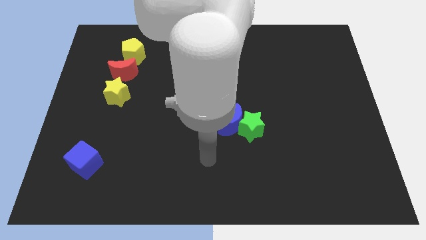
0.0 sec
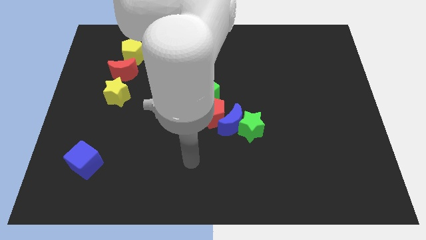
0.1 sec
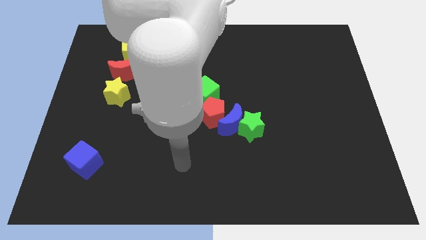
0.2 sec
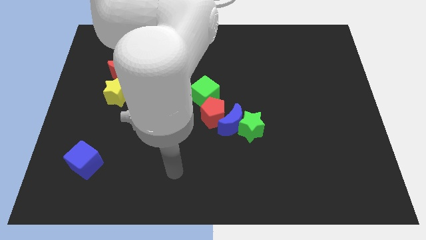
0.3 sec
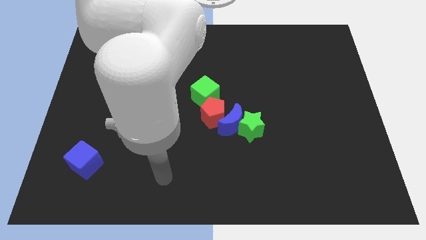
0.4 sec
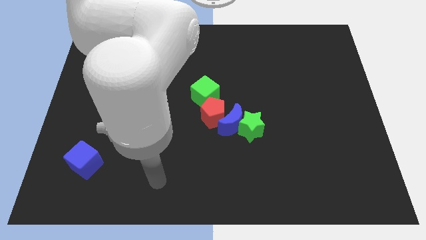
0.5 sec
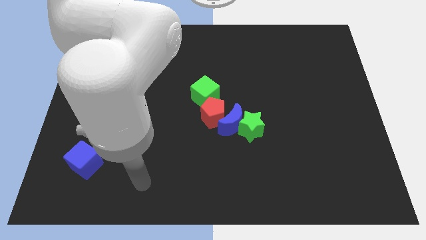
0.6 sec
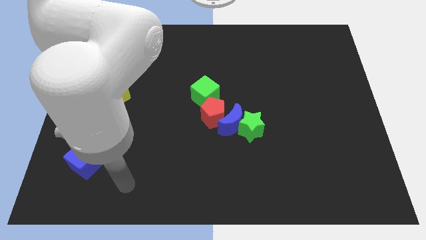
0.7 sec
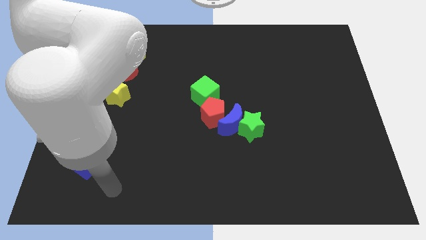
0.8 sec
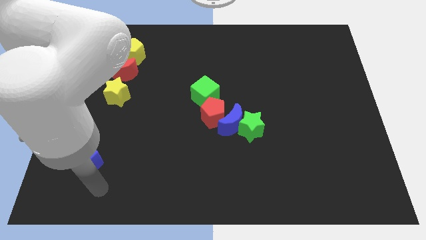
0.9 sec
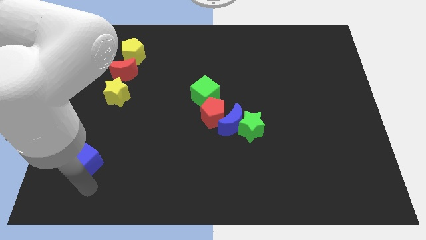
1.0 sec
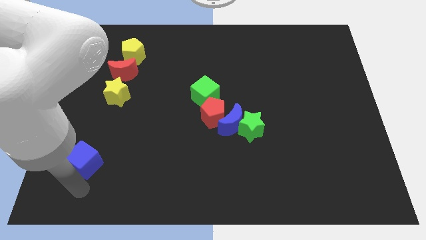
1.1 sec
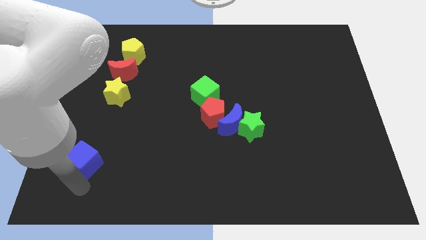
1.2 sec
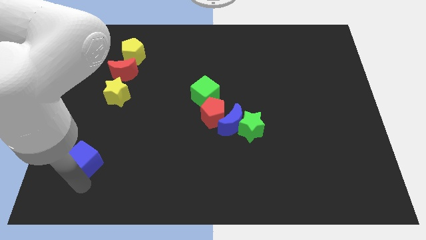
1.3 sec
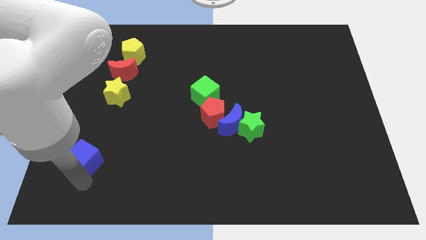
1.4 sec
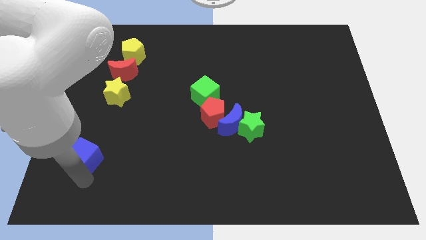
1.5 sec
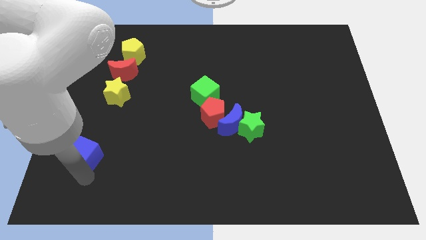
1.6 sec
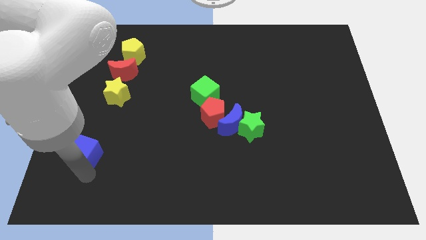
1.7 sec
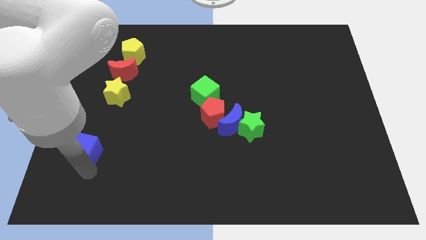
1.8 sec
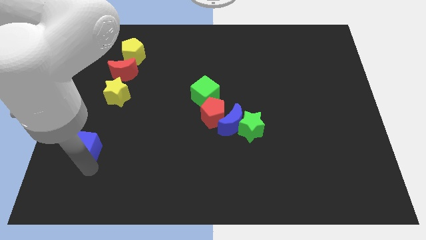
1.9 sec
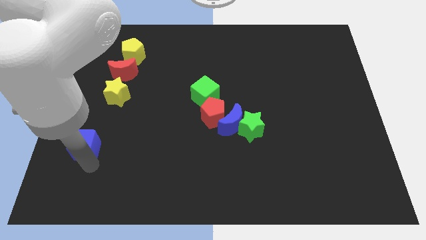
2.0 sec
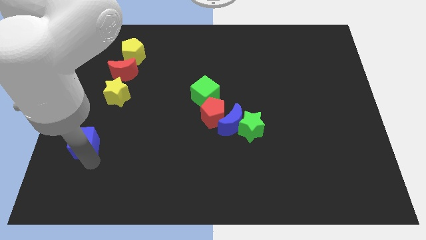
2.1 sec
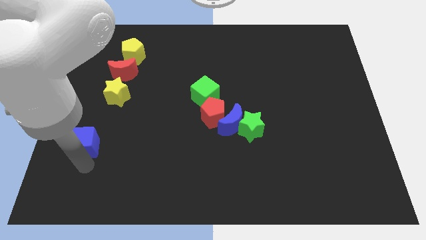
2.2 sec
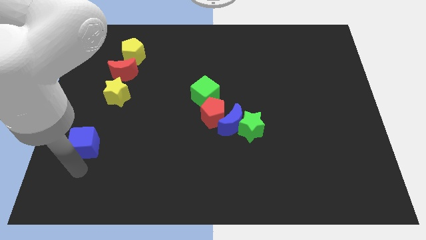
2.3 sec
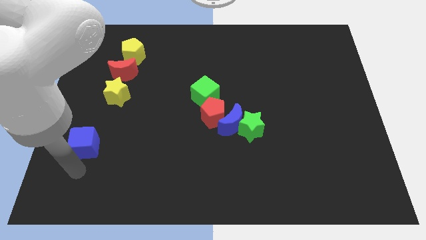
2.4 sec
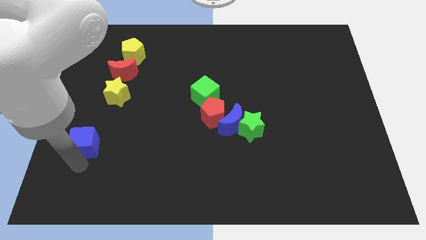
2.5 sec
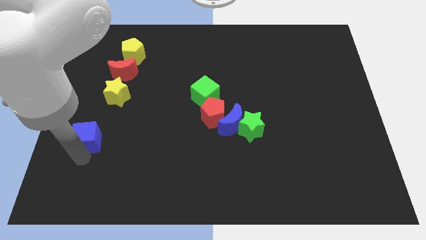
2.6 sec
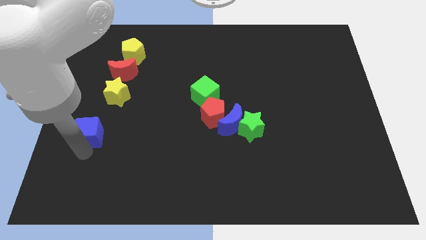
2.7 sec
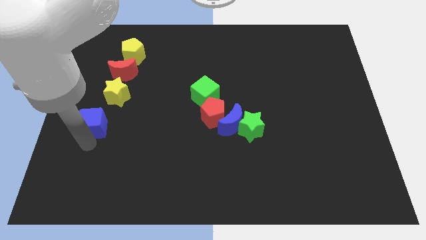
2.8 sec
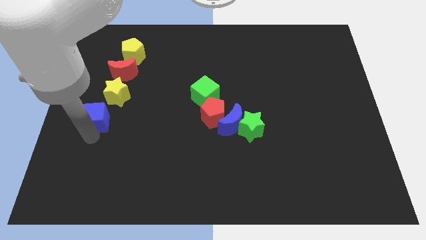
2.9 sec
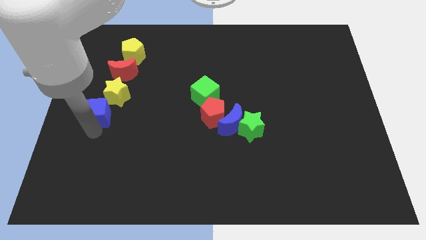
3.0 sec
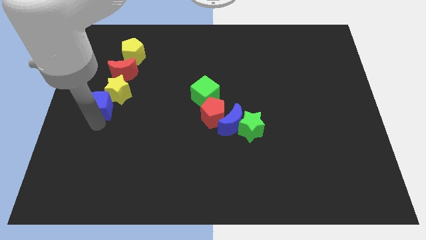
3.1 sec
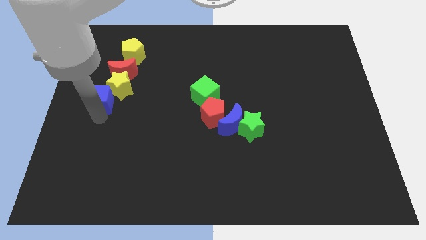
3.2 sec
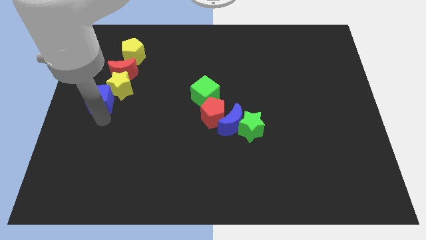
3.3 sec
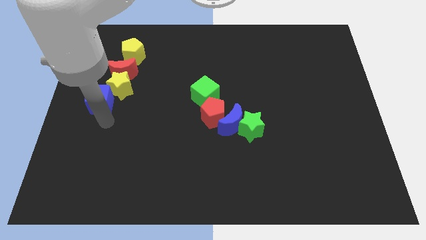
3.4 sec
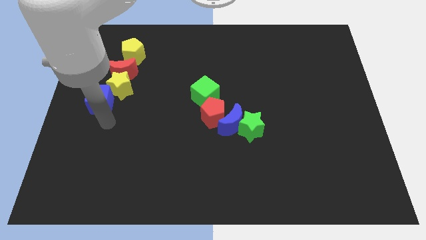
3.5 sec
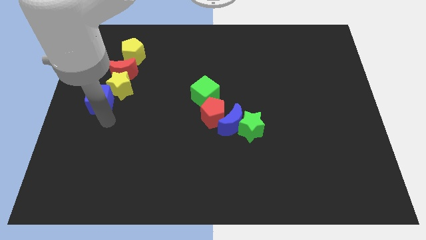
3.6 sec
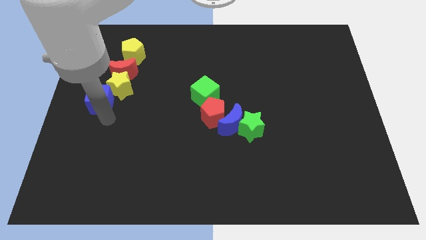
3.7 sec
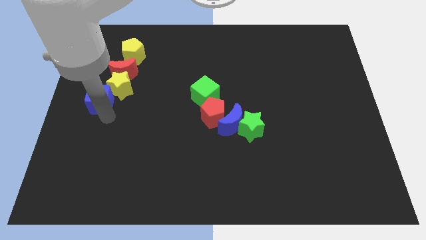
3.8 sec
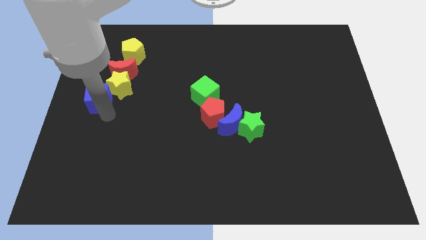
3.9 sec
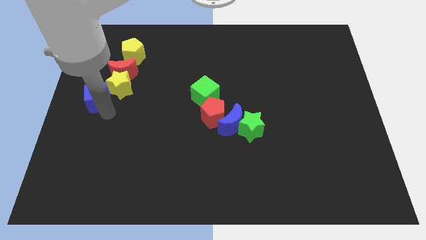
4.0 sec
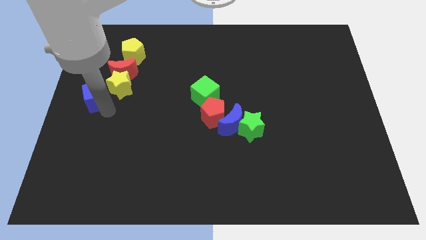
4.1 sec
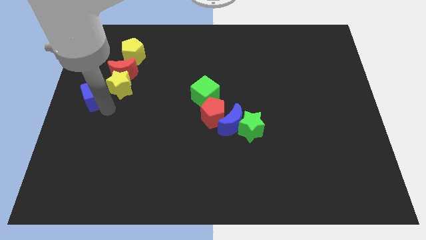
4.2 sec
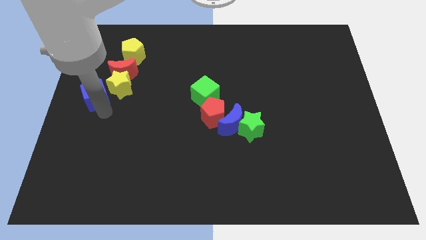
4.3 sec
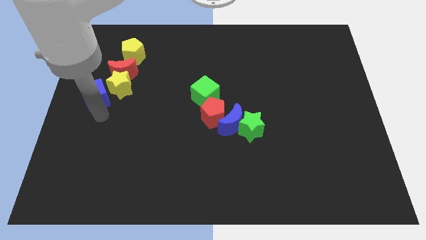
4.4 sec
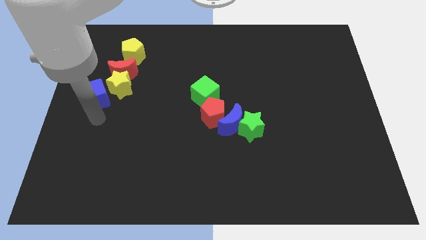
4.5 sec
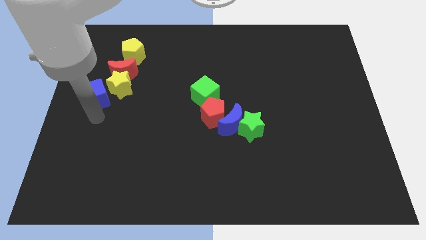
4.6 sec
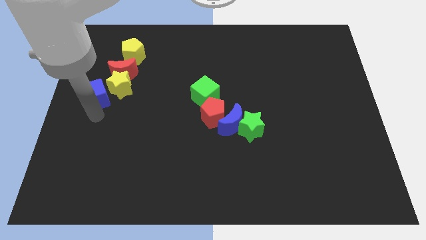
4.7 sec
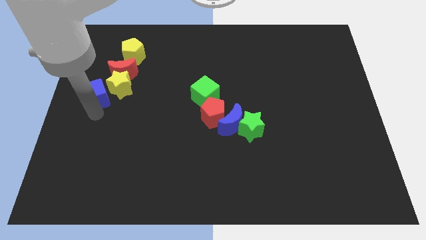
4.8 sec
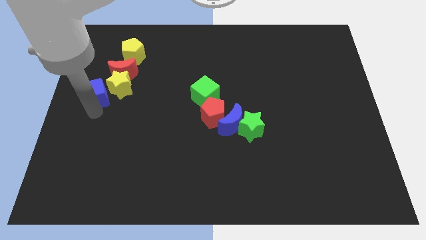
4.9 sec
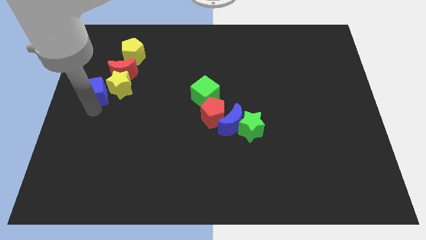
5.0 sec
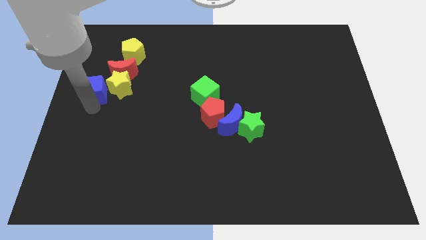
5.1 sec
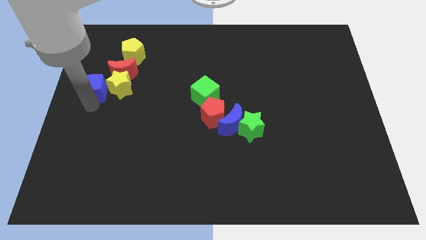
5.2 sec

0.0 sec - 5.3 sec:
push the blue cube upwards

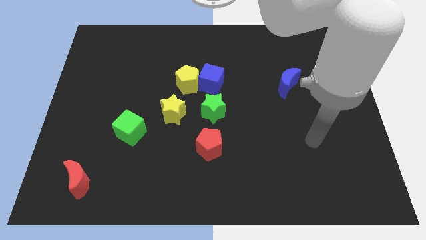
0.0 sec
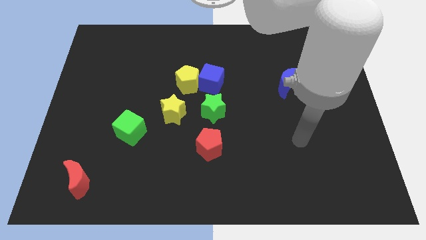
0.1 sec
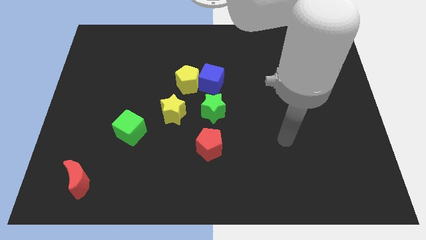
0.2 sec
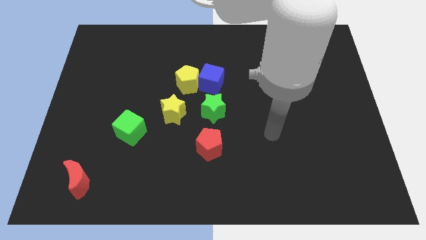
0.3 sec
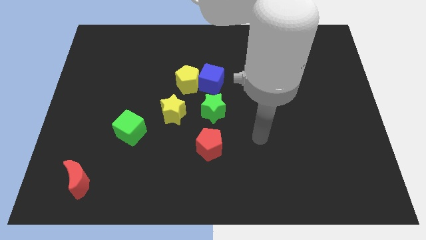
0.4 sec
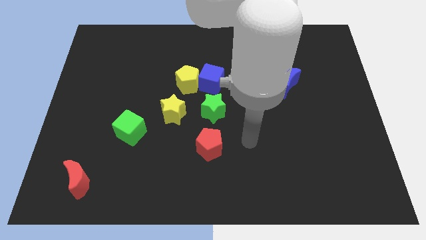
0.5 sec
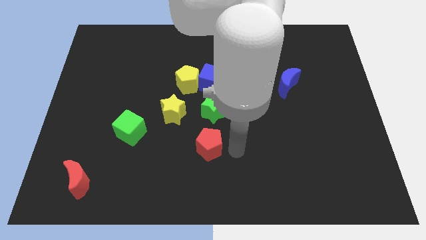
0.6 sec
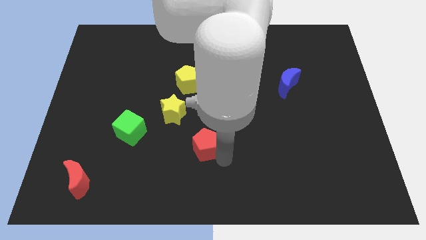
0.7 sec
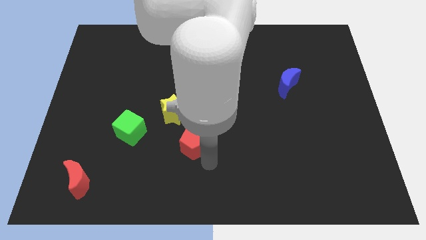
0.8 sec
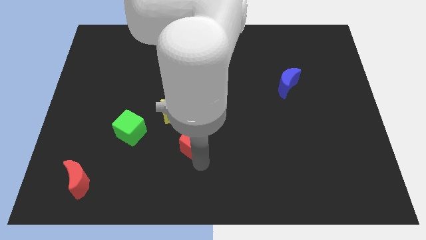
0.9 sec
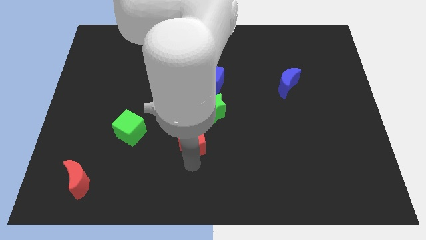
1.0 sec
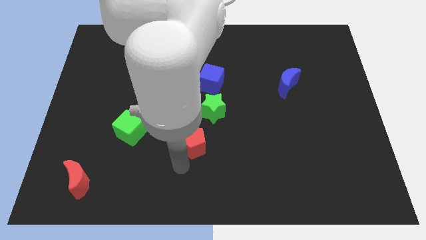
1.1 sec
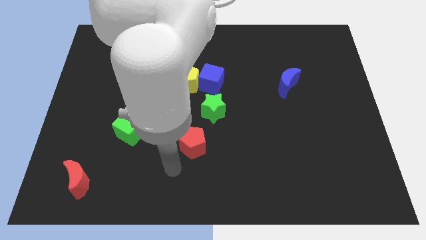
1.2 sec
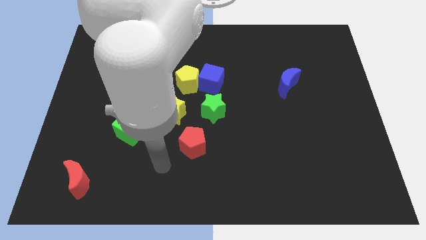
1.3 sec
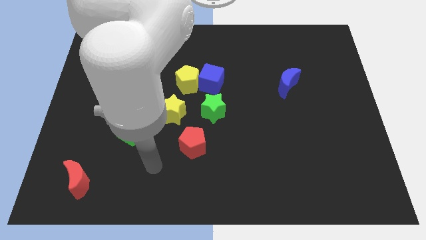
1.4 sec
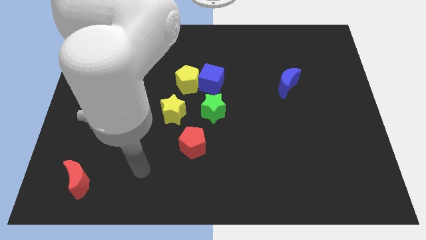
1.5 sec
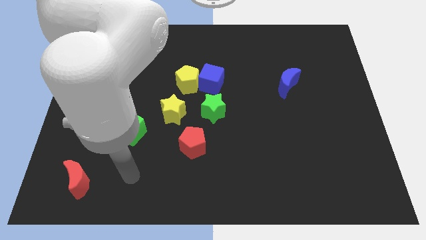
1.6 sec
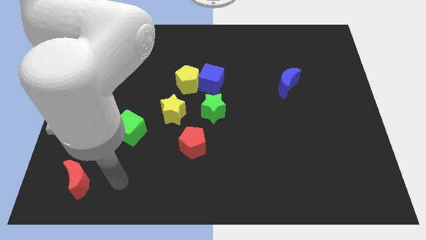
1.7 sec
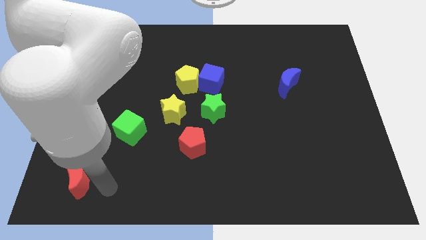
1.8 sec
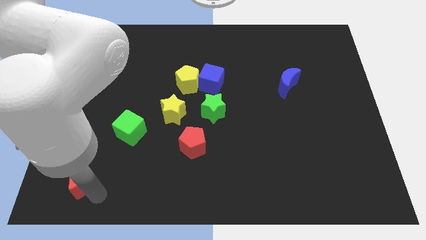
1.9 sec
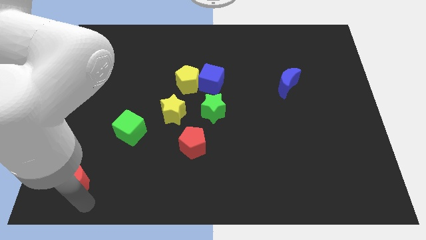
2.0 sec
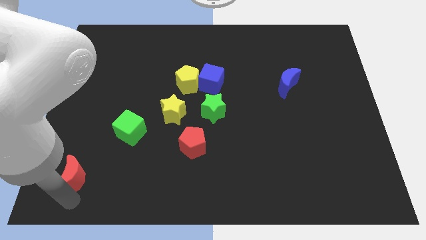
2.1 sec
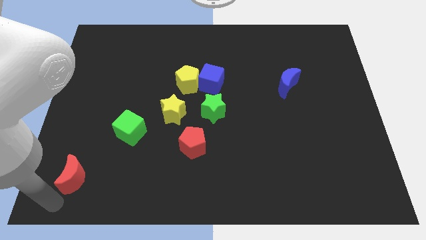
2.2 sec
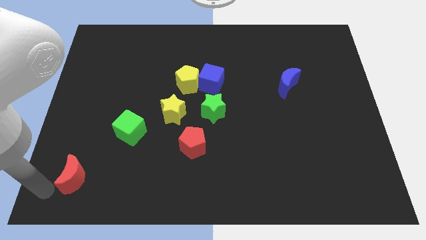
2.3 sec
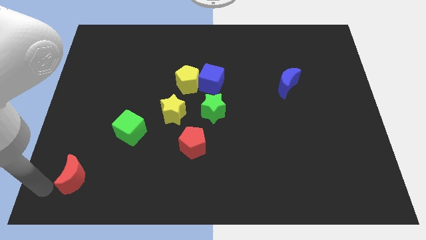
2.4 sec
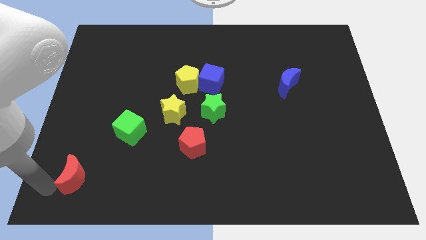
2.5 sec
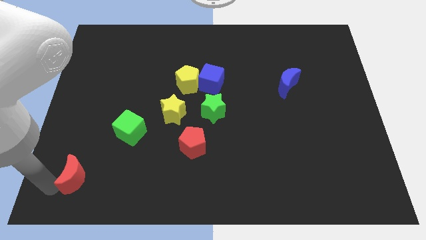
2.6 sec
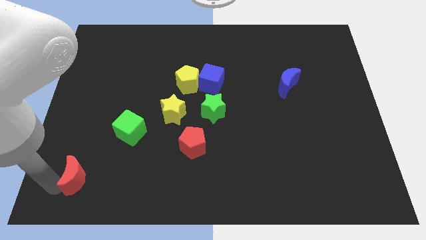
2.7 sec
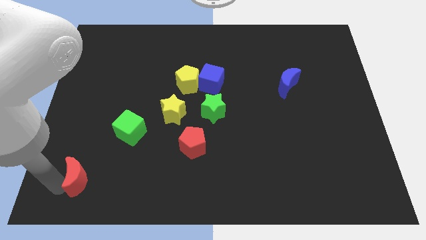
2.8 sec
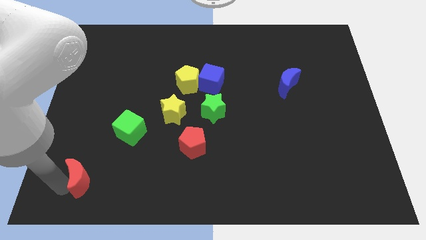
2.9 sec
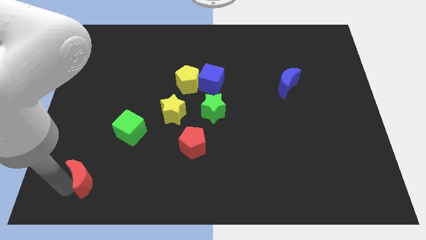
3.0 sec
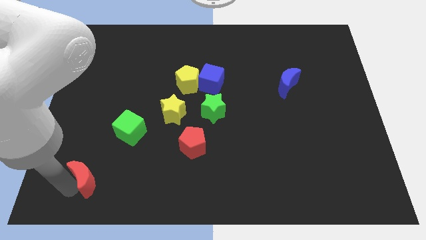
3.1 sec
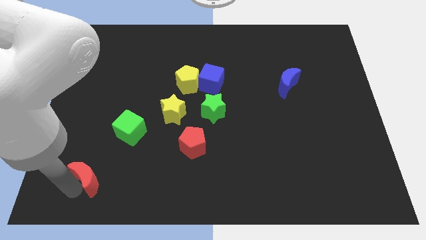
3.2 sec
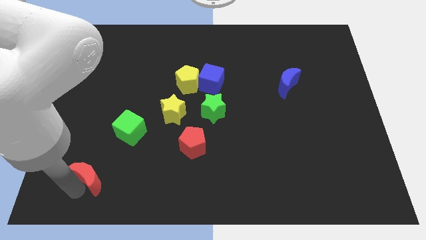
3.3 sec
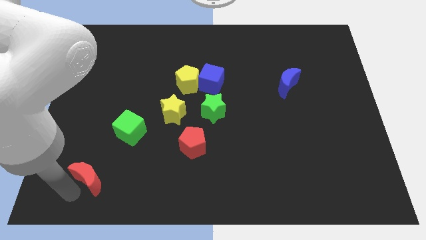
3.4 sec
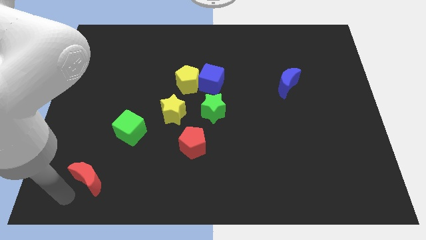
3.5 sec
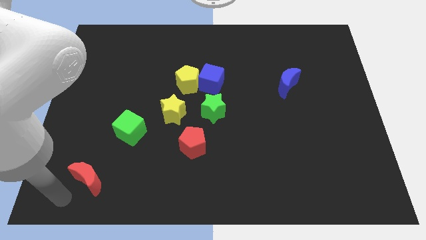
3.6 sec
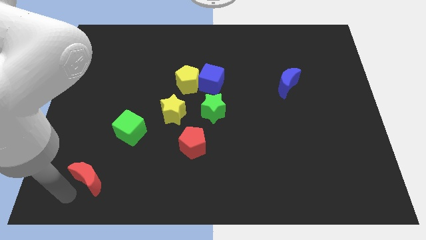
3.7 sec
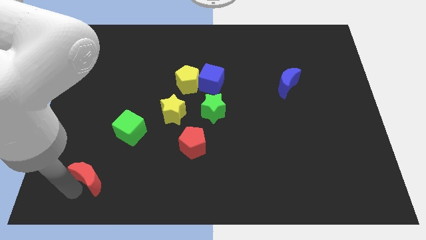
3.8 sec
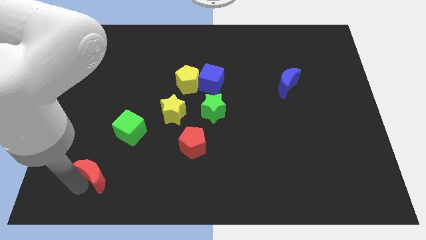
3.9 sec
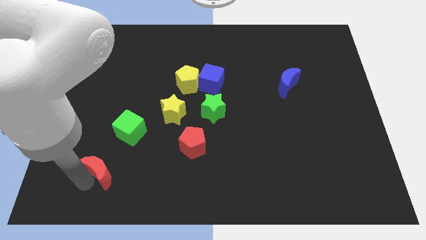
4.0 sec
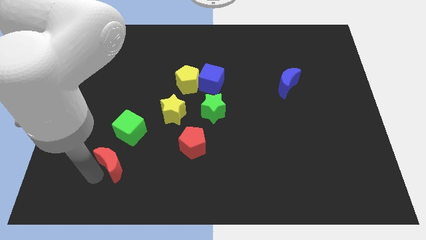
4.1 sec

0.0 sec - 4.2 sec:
slide the red moon somewhat upwards and right
